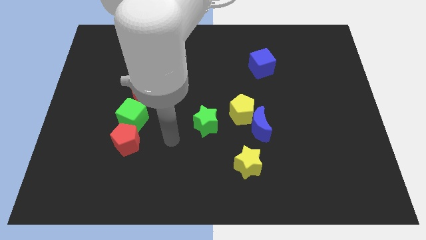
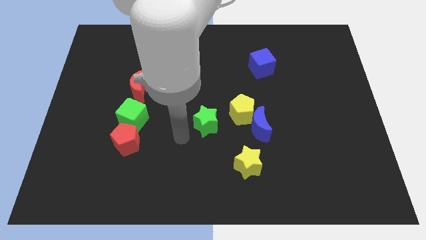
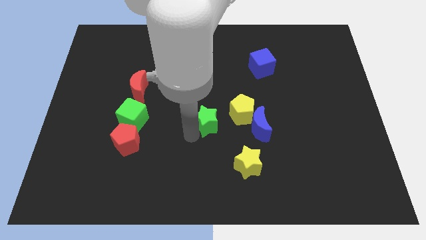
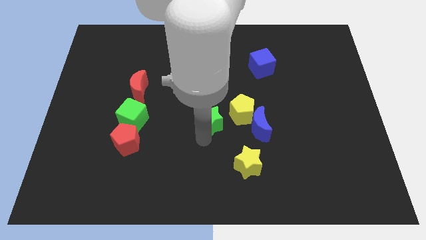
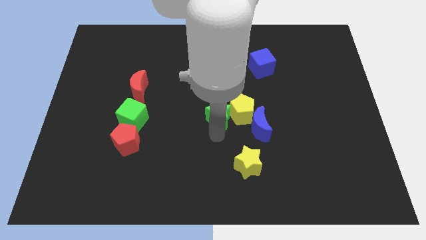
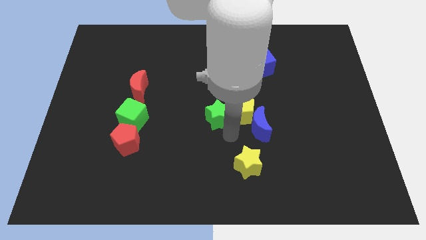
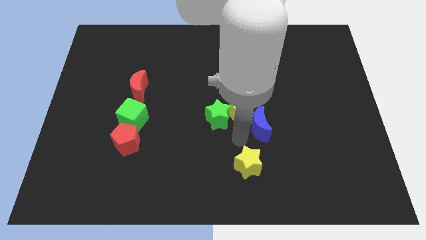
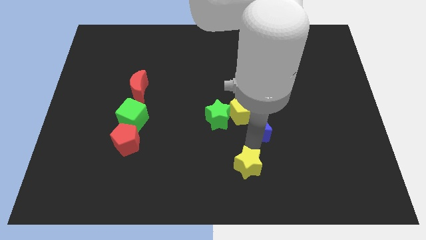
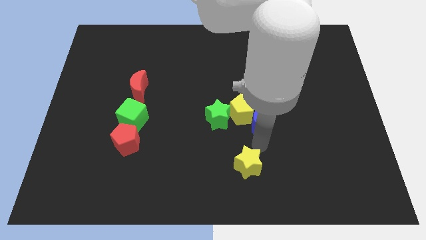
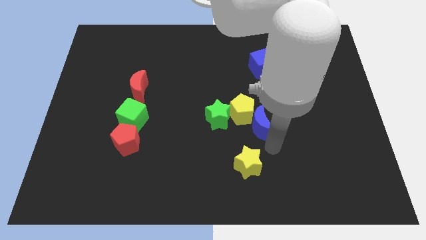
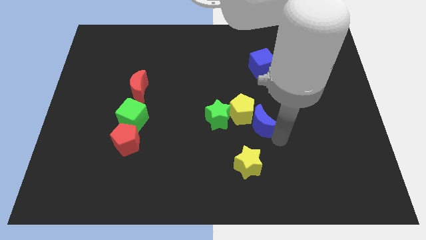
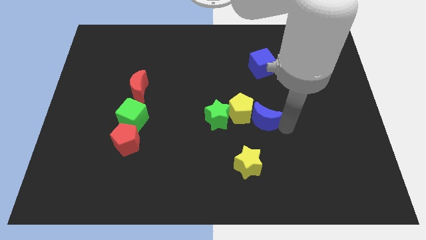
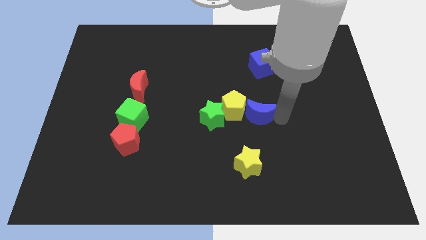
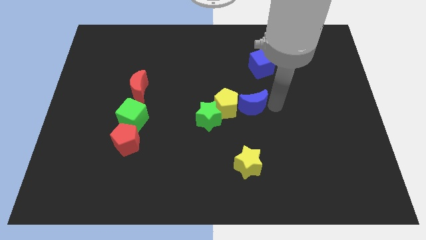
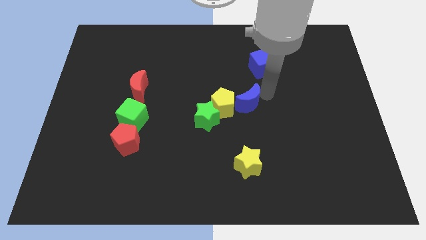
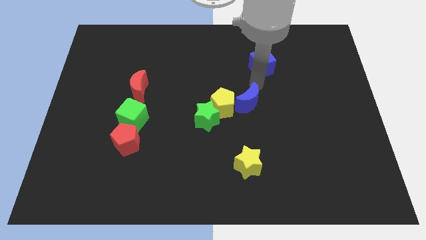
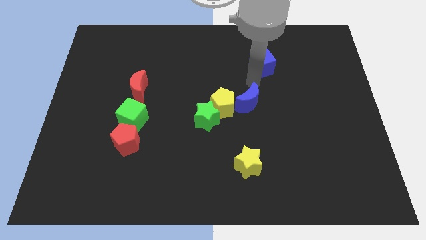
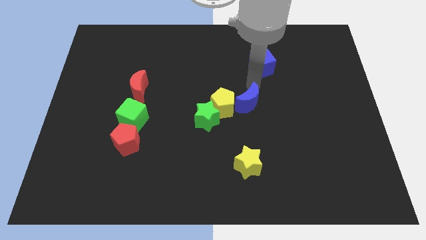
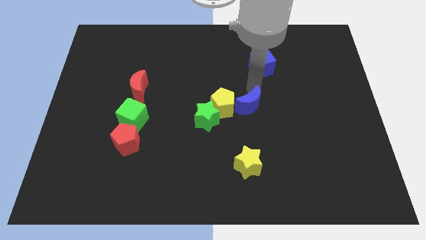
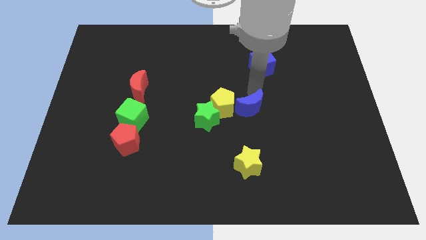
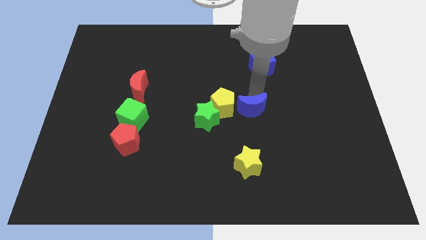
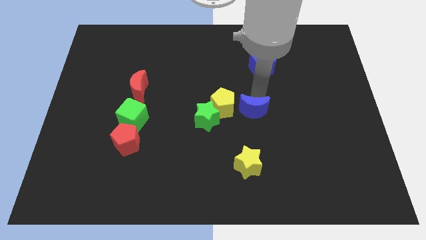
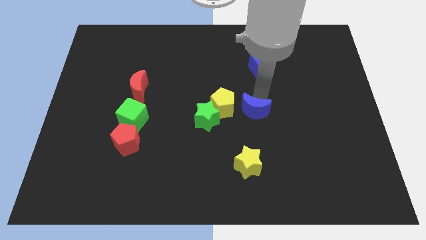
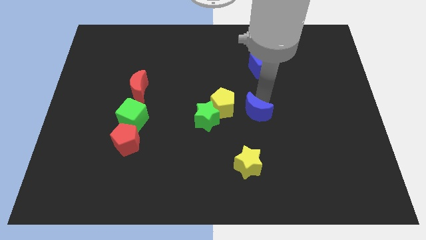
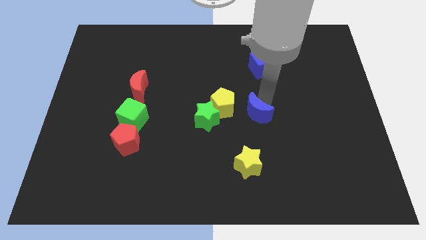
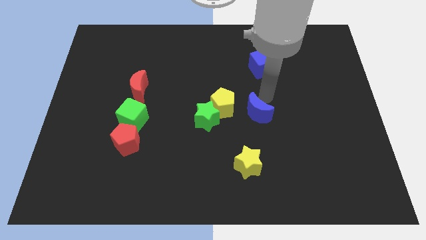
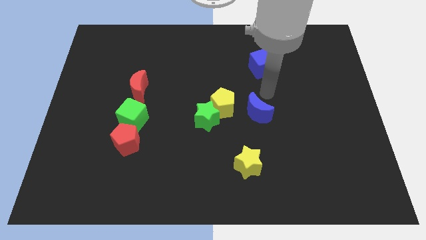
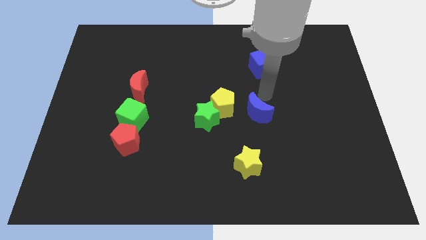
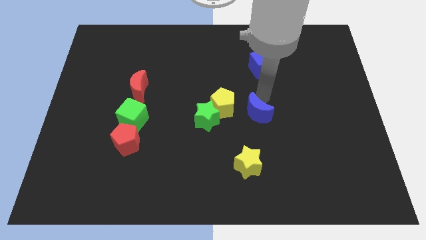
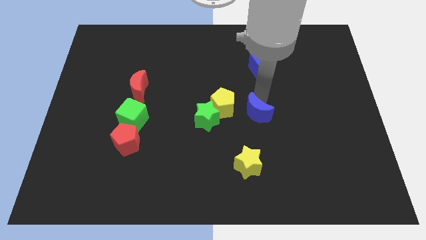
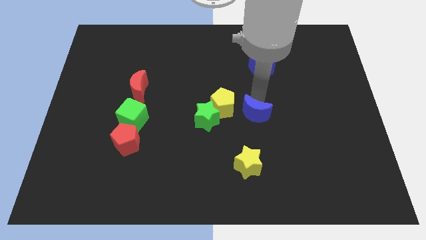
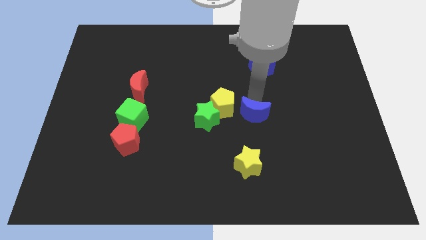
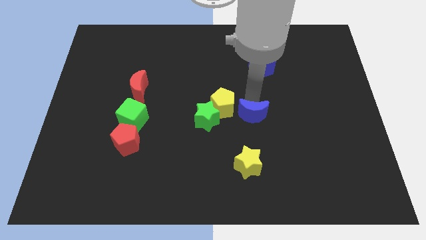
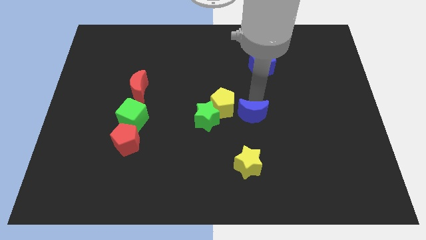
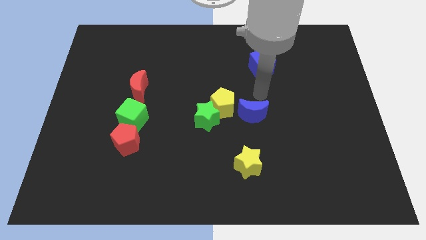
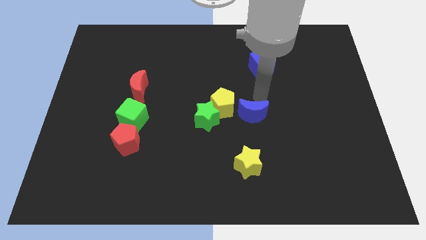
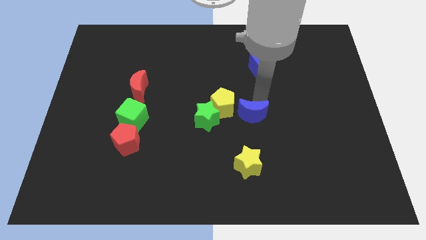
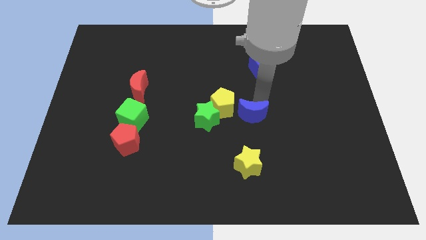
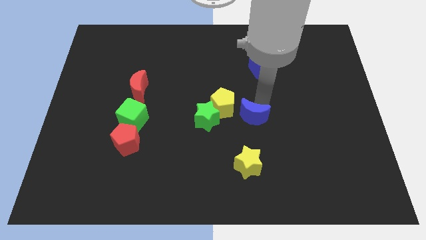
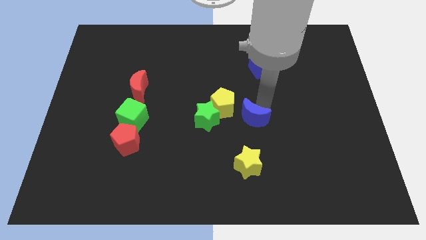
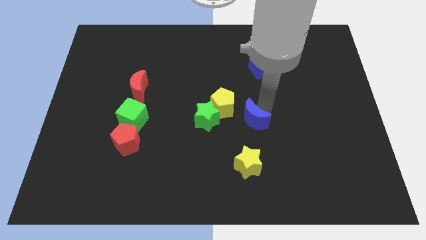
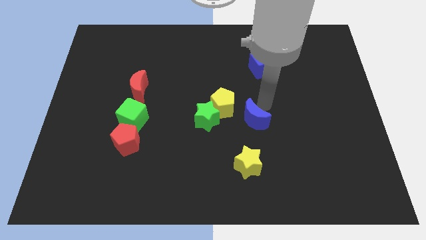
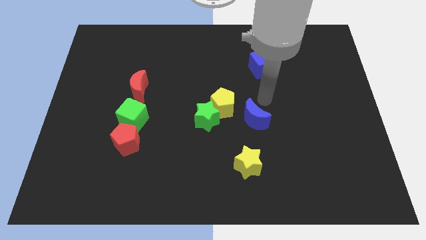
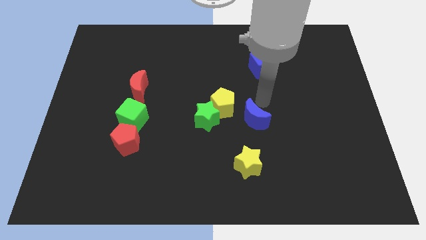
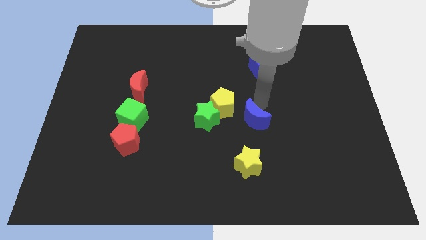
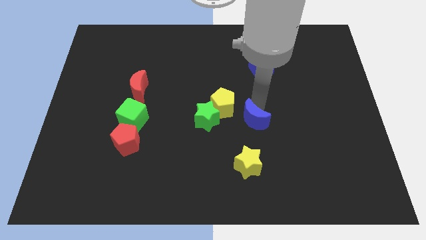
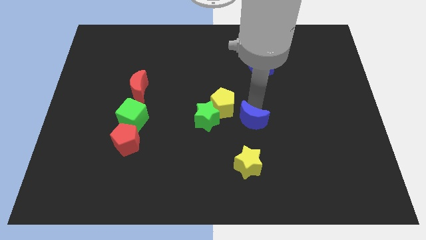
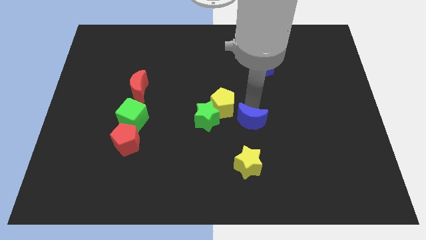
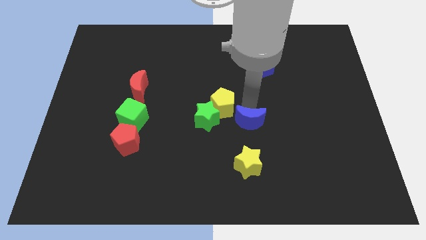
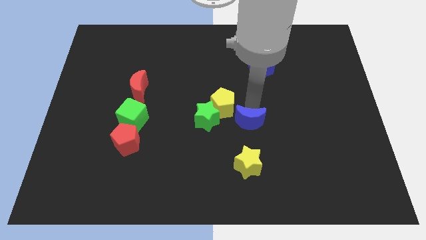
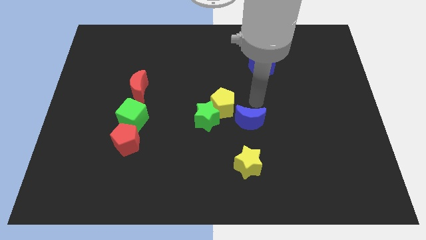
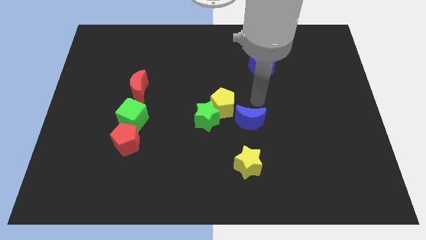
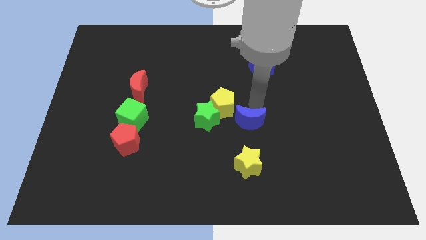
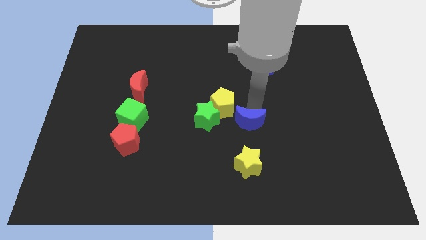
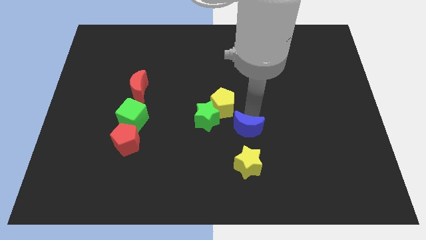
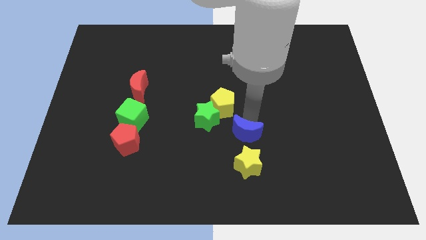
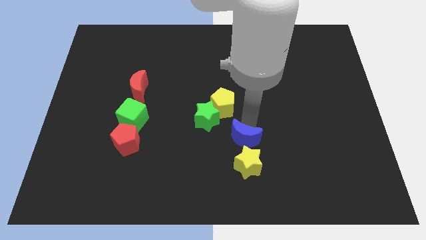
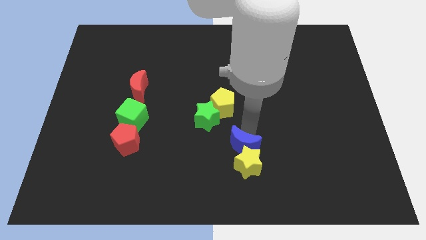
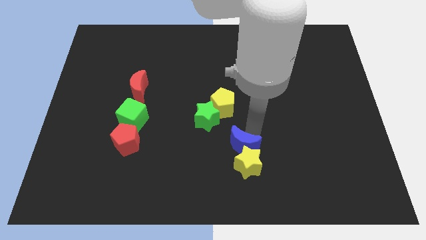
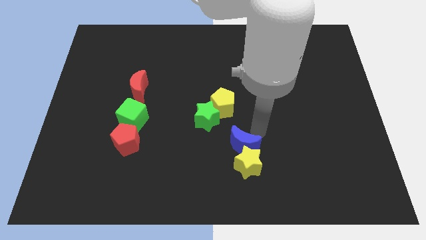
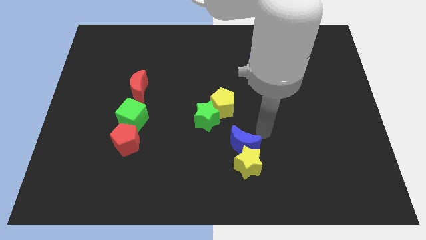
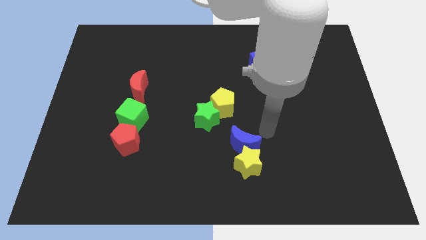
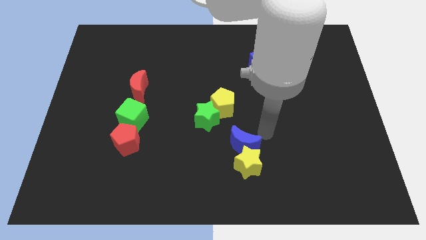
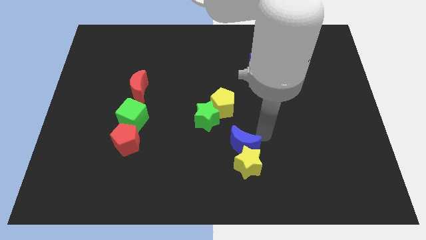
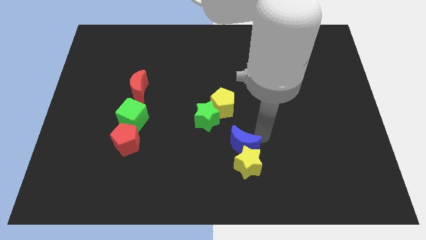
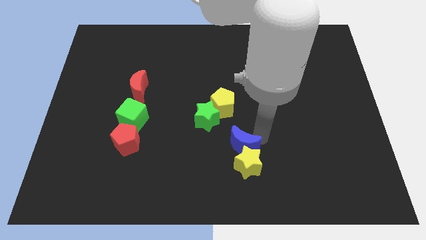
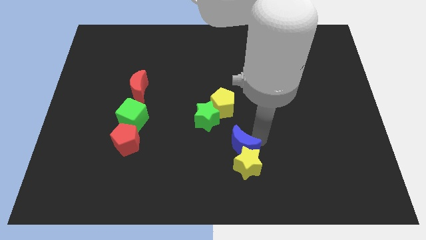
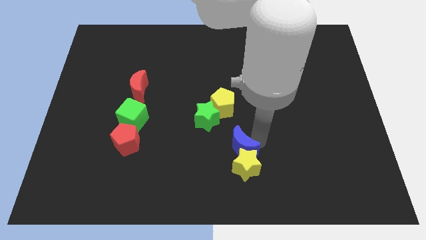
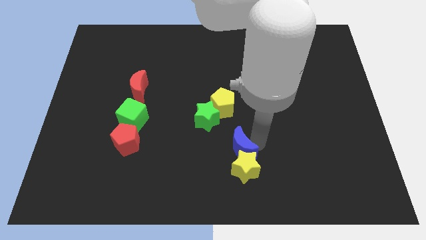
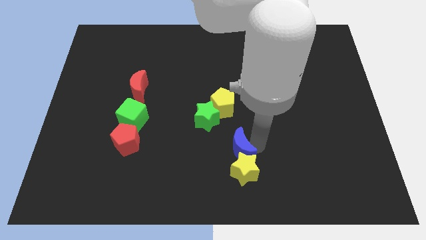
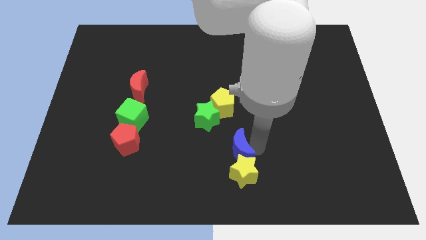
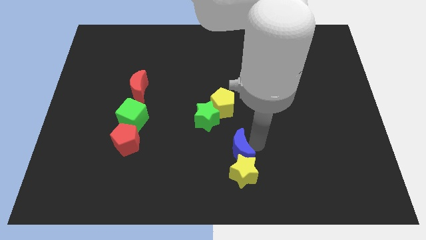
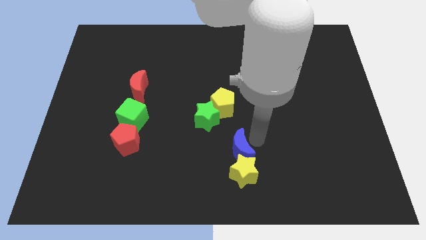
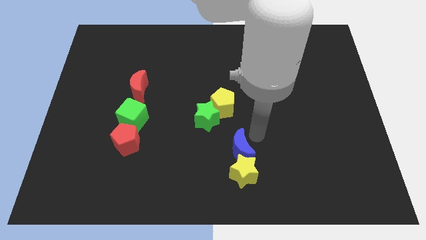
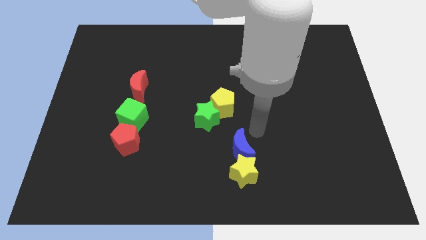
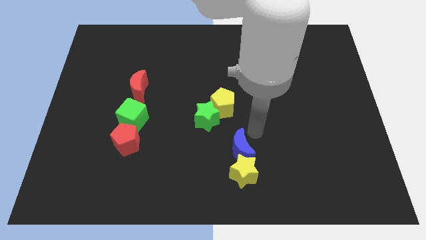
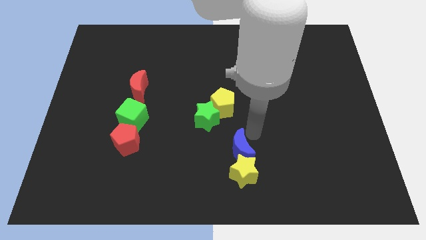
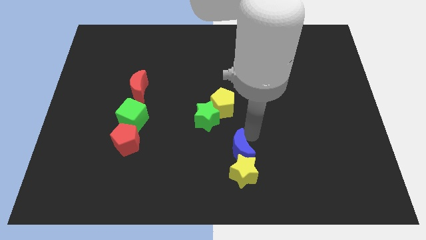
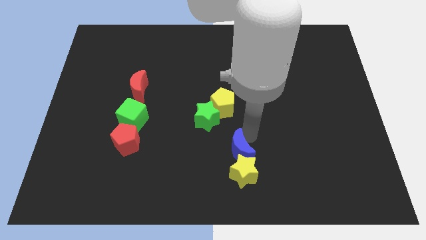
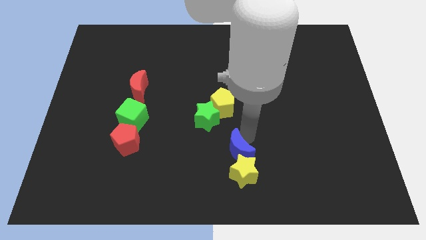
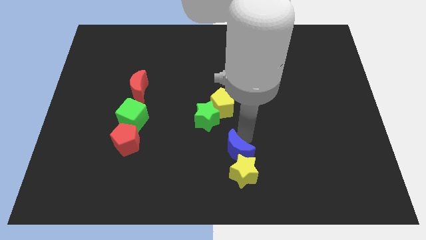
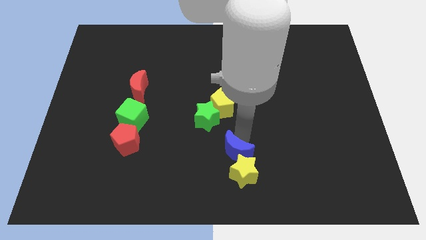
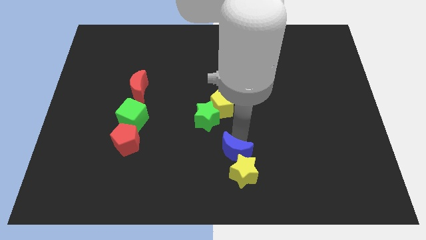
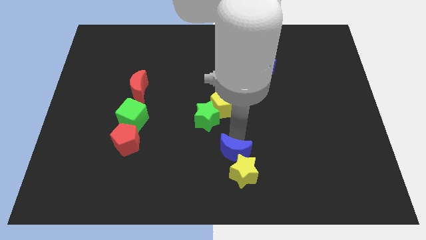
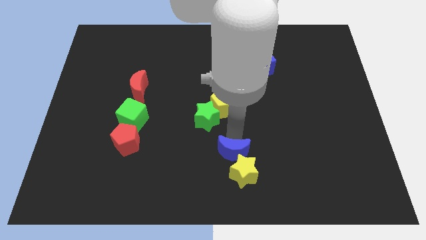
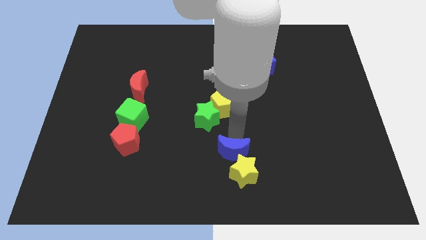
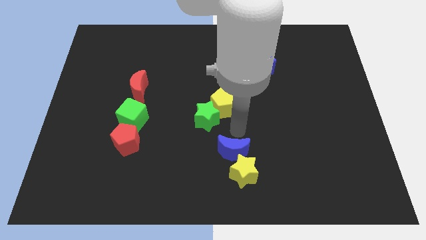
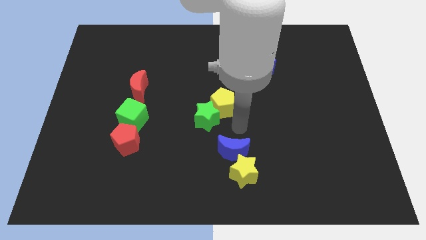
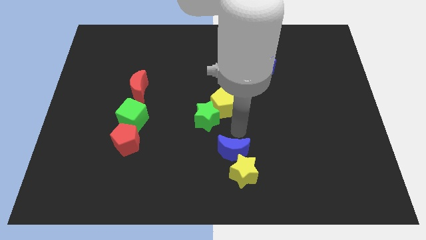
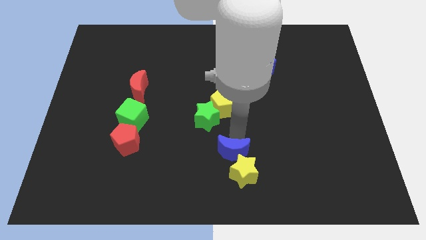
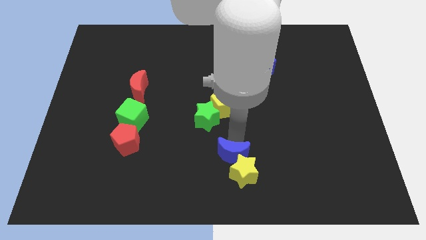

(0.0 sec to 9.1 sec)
push the blue moon to the bottom side
